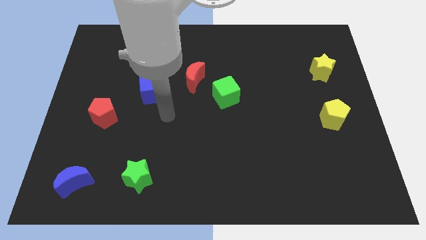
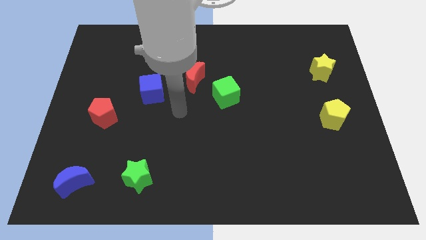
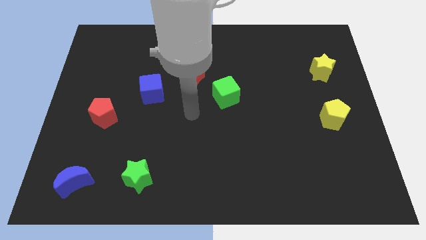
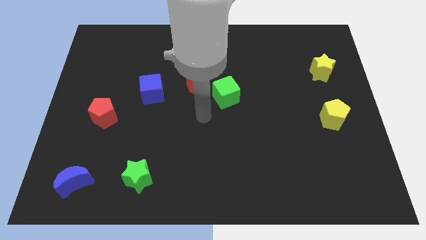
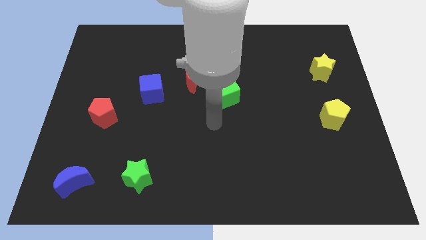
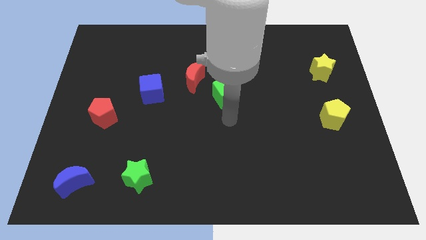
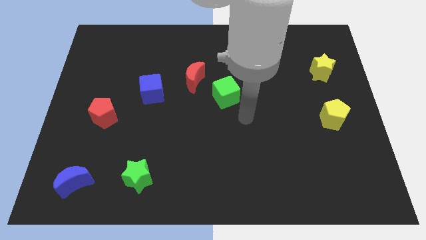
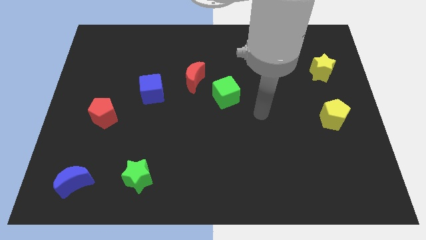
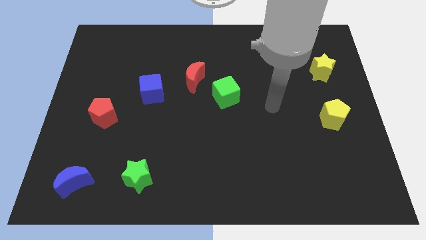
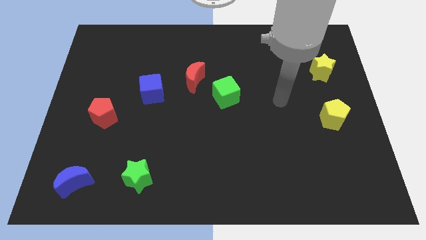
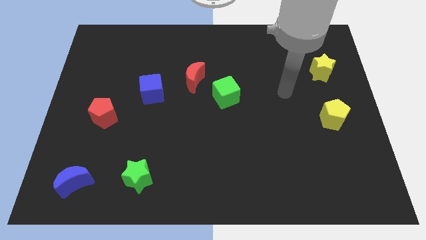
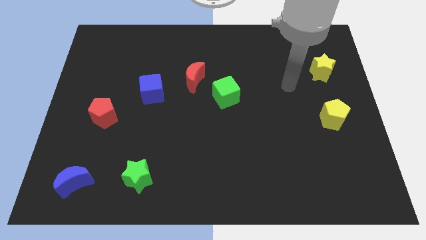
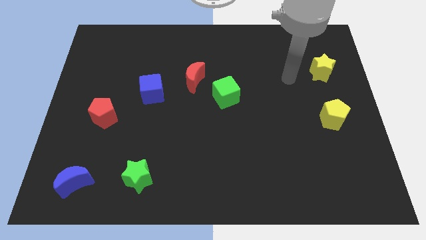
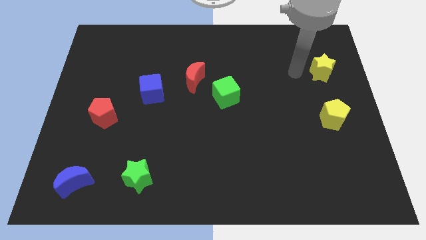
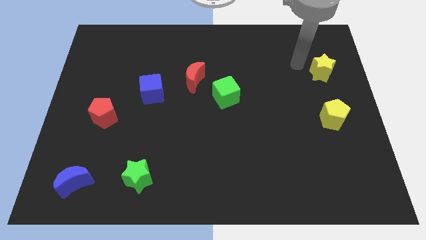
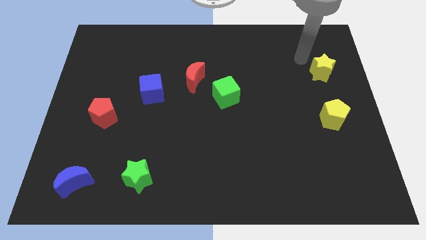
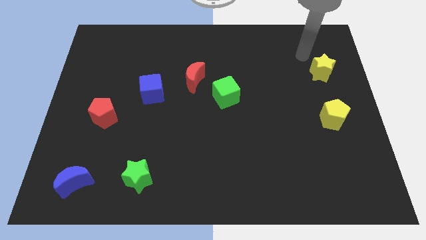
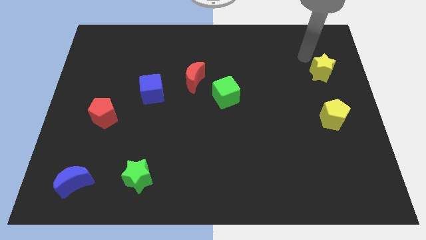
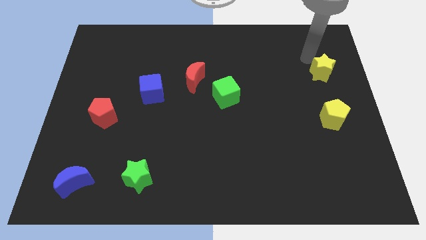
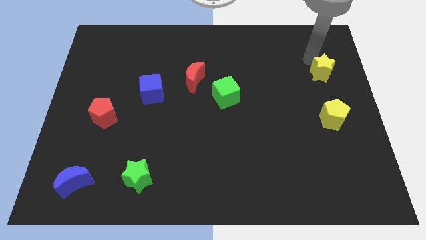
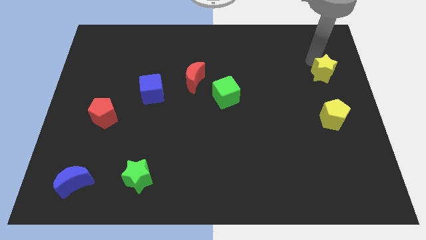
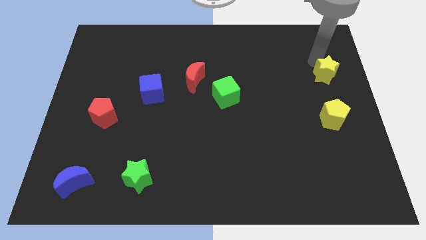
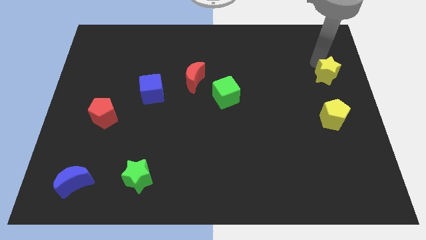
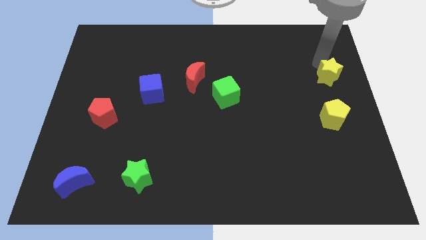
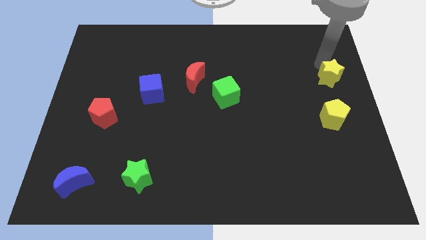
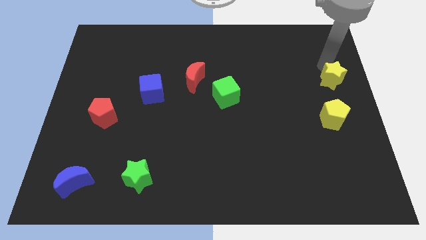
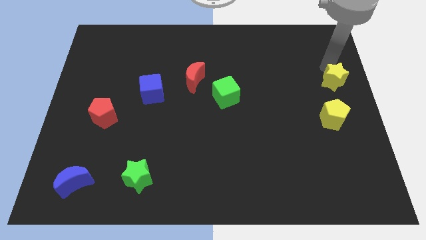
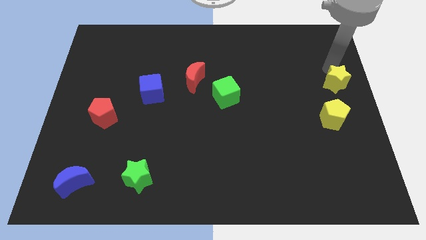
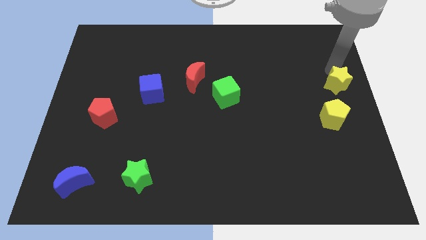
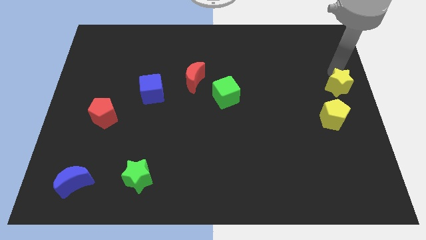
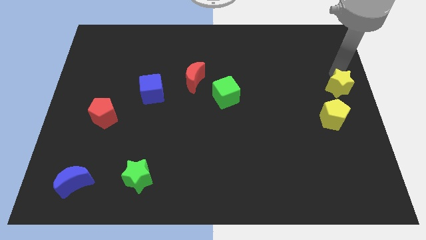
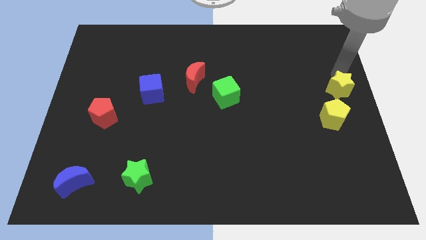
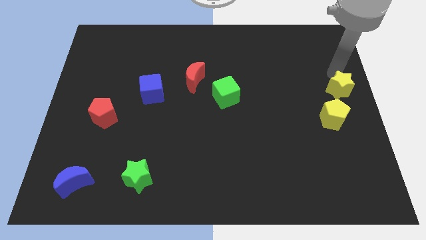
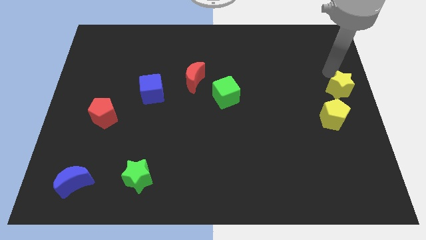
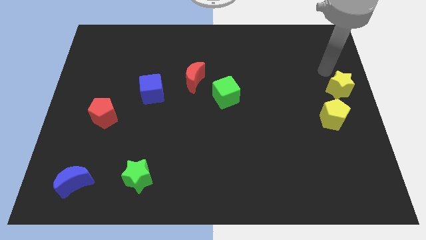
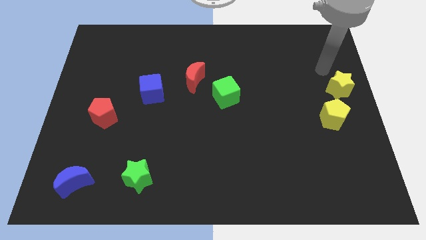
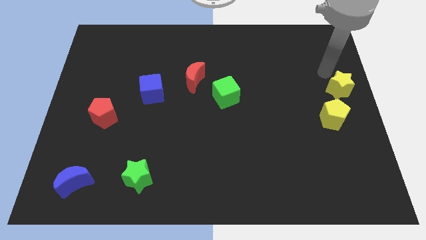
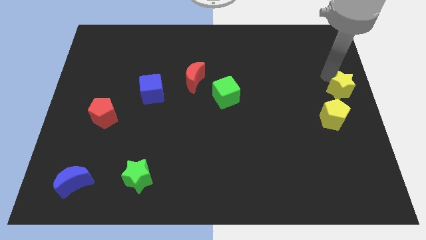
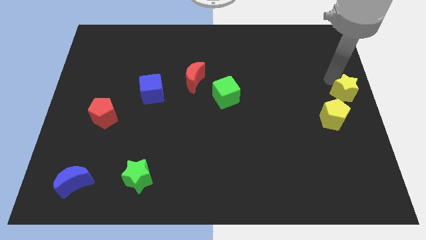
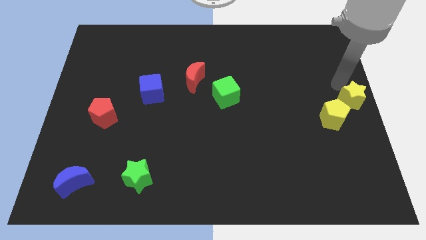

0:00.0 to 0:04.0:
slide the yellow star somewhat down

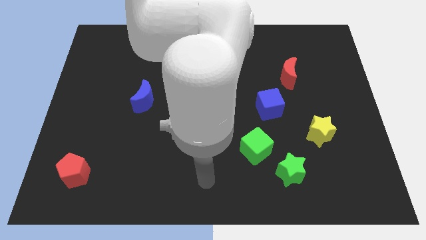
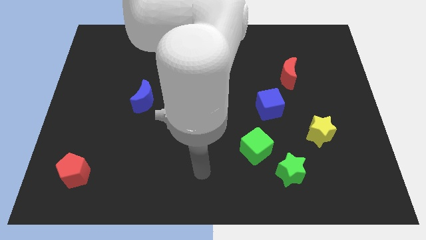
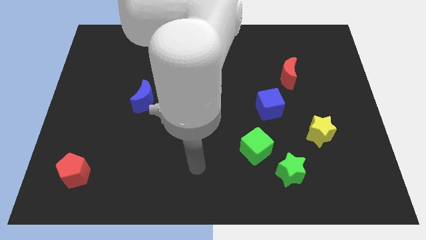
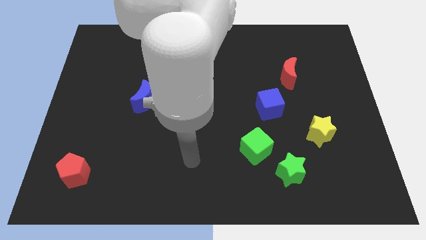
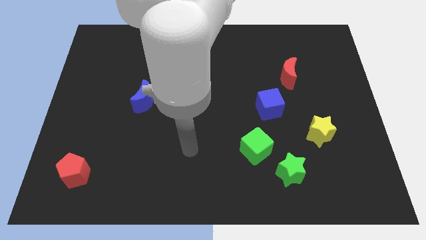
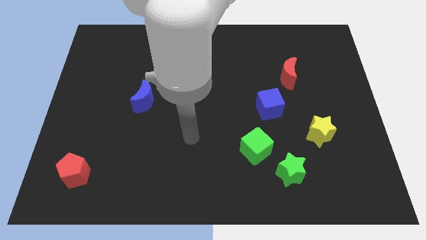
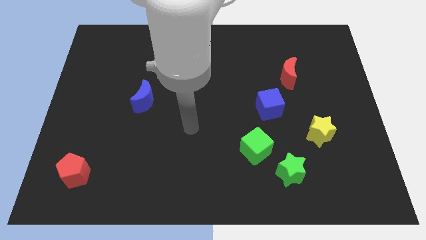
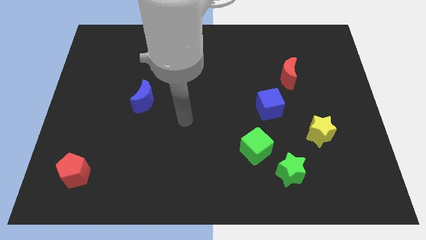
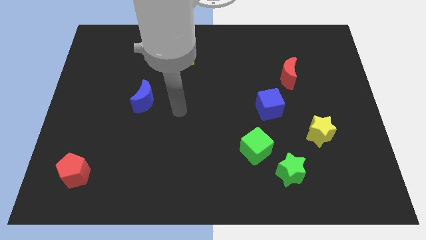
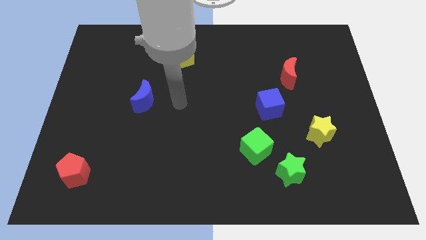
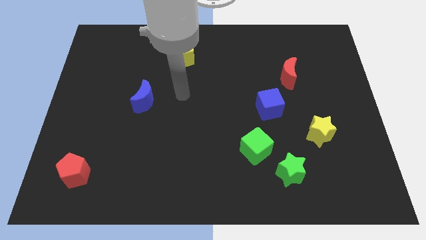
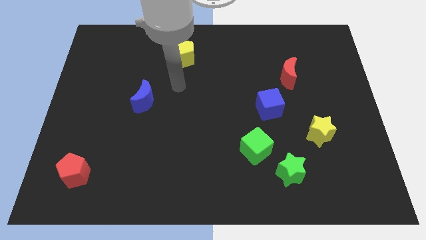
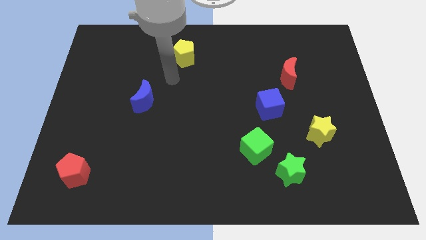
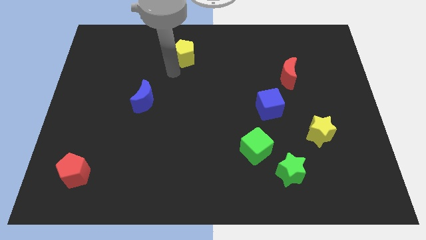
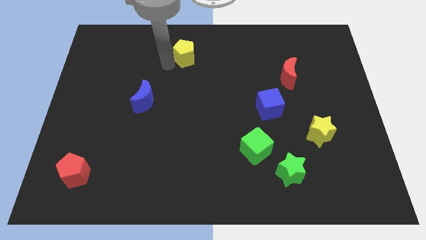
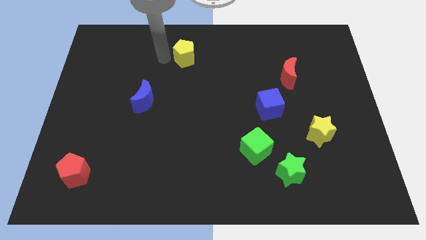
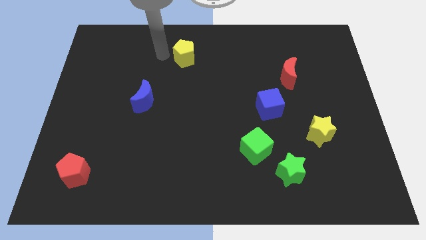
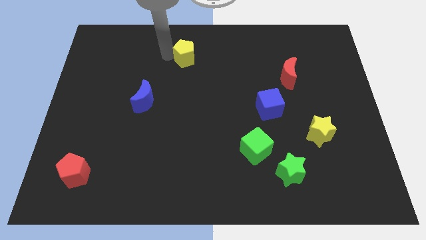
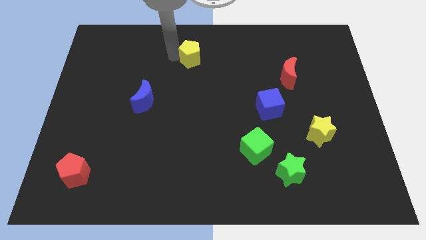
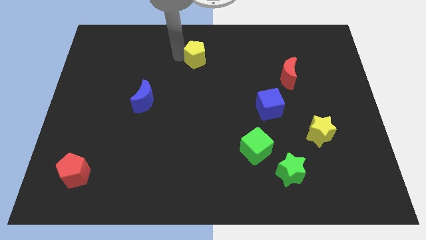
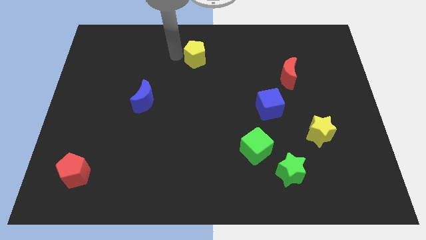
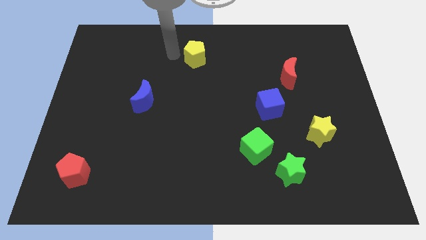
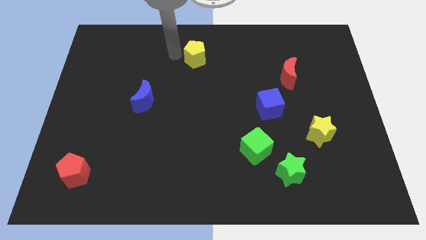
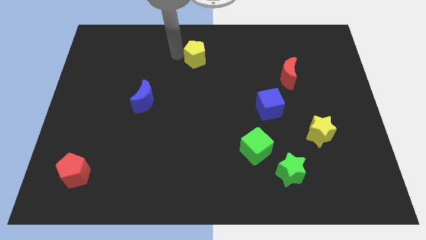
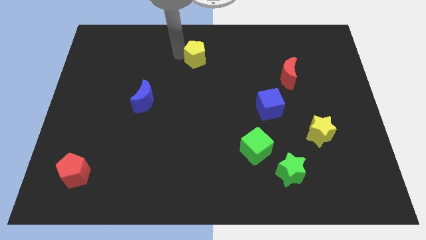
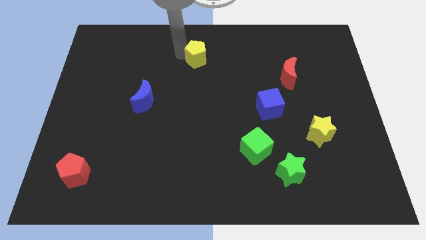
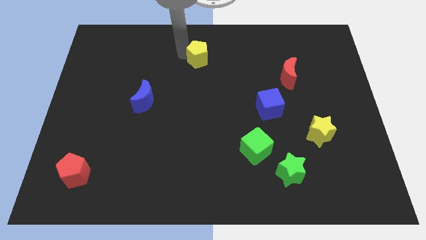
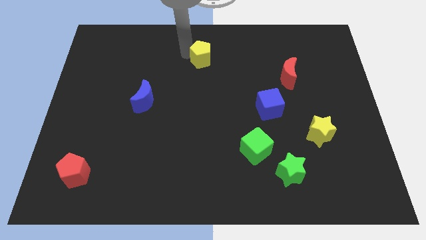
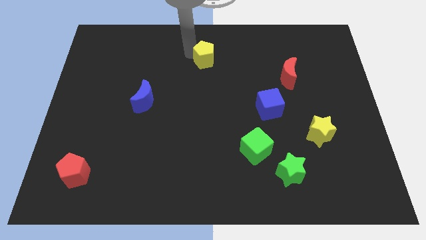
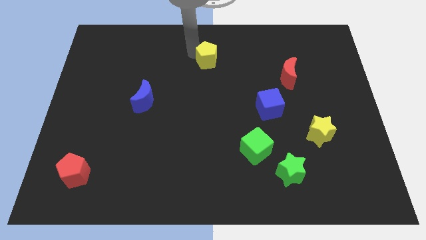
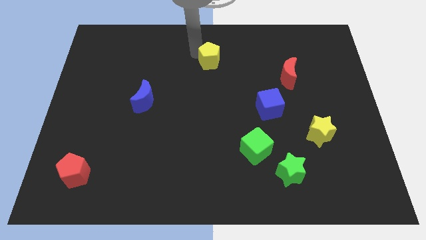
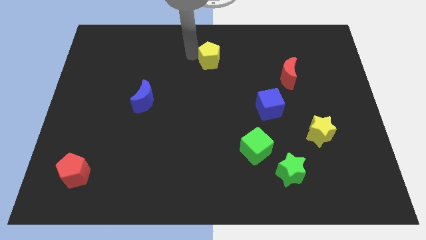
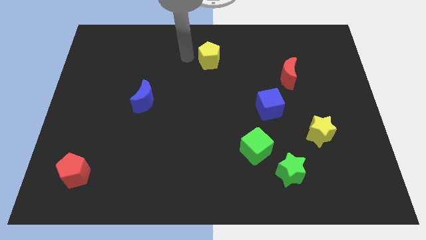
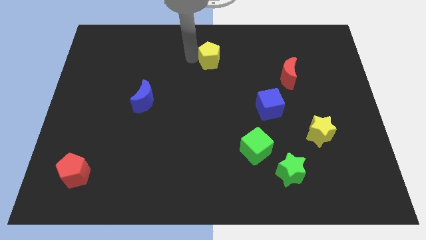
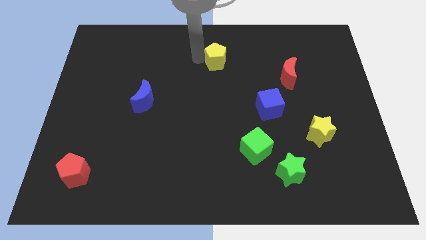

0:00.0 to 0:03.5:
slightly push the yellow pentagon to the right

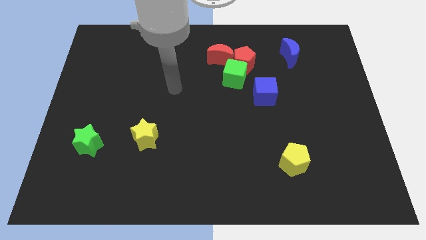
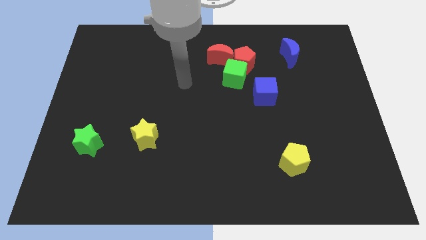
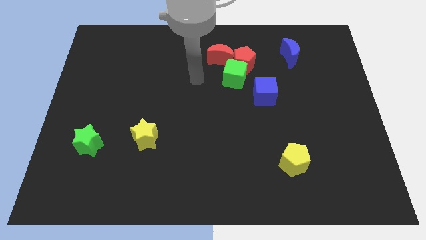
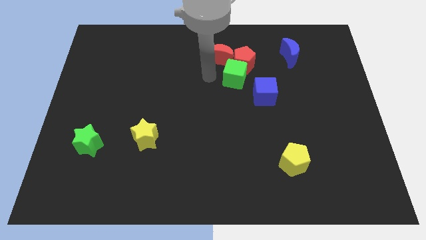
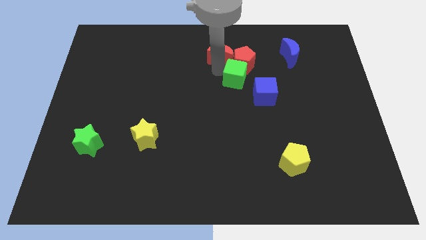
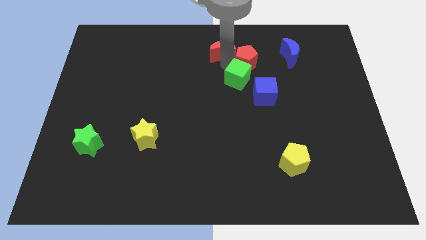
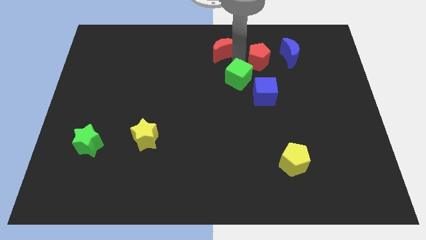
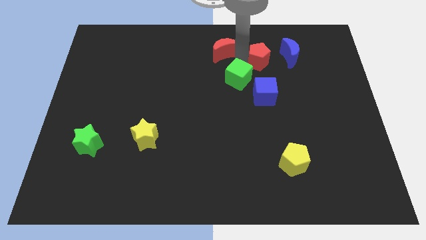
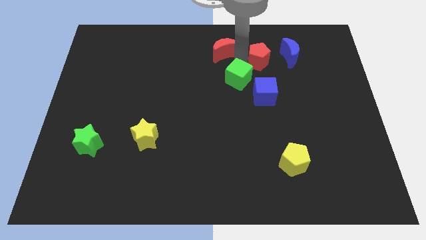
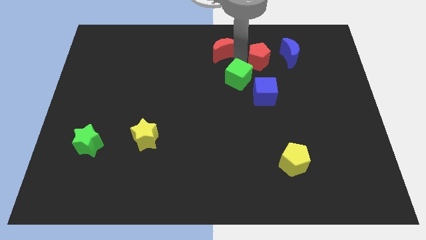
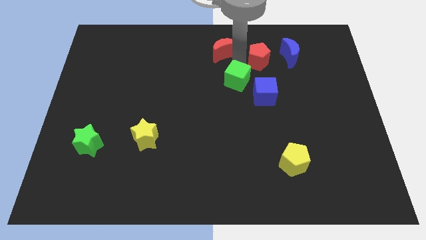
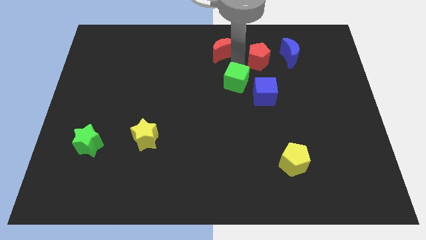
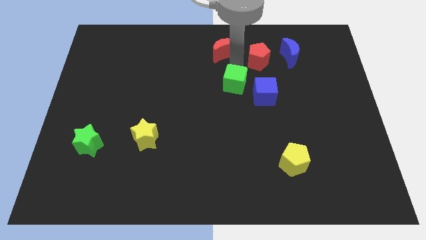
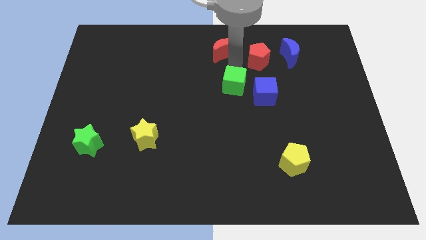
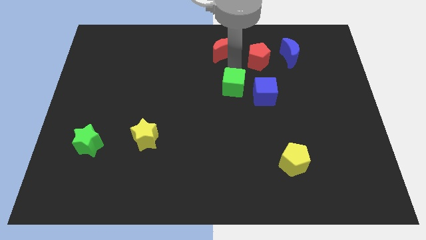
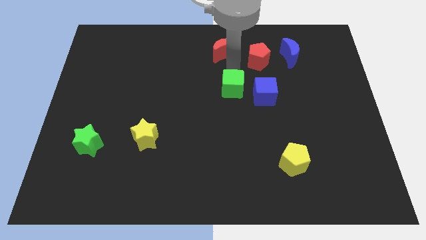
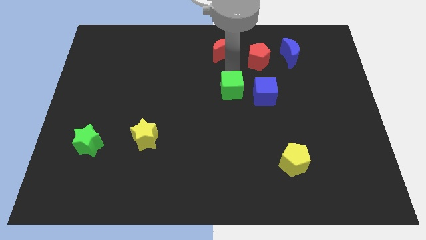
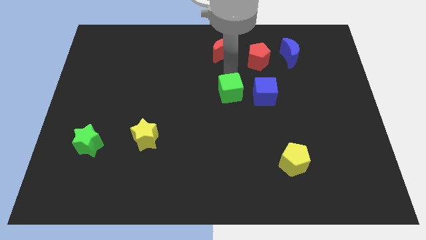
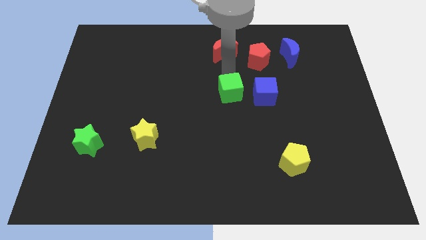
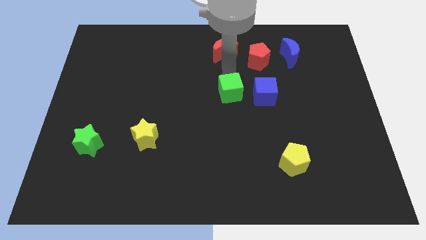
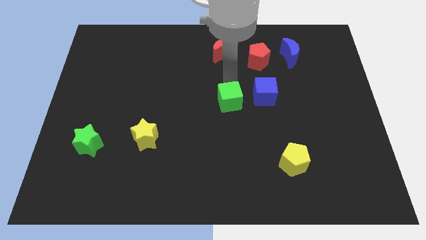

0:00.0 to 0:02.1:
slide the green cube somewhat downwards
